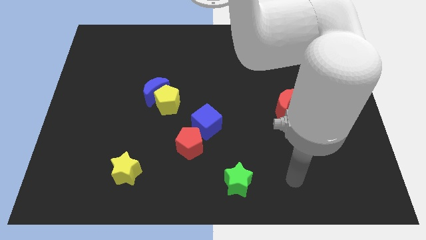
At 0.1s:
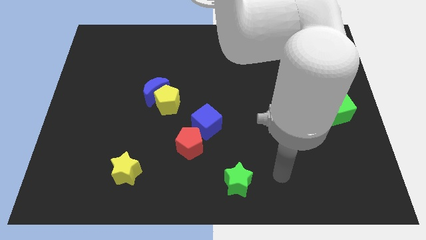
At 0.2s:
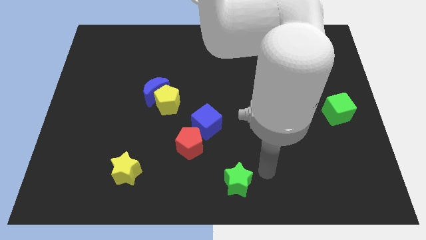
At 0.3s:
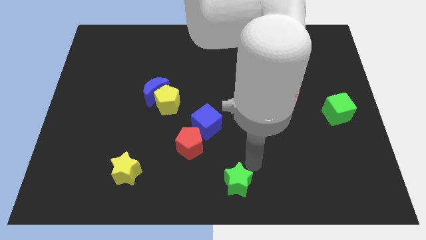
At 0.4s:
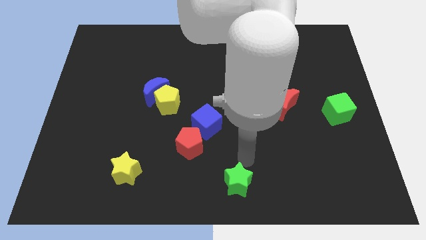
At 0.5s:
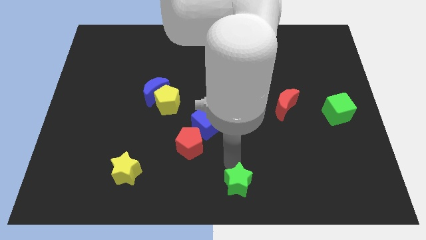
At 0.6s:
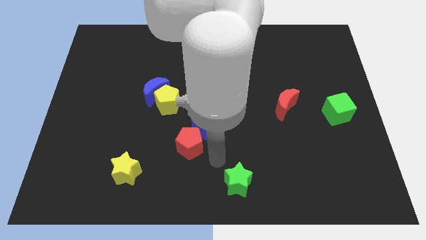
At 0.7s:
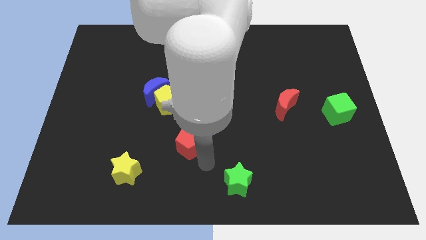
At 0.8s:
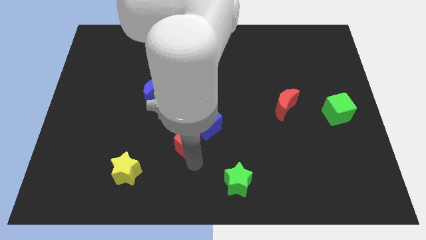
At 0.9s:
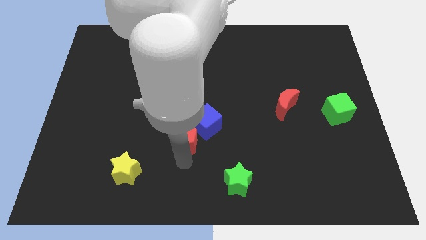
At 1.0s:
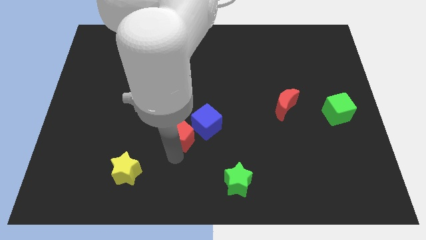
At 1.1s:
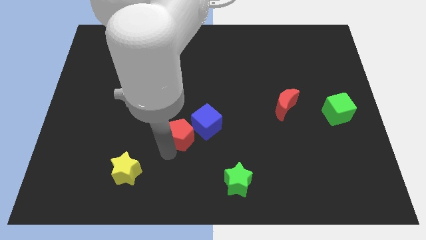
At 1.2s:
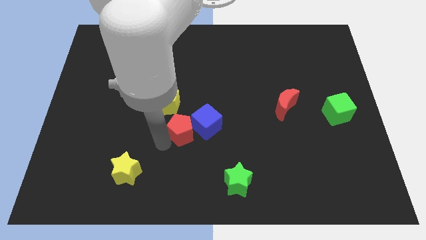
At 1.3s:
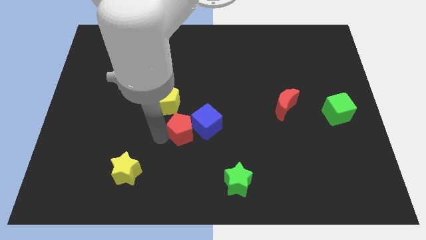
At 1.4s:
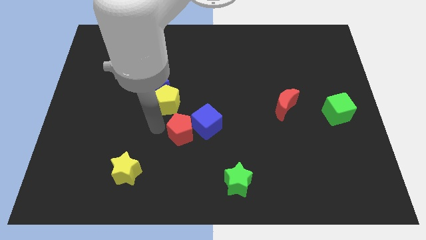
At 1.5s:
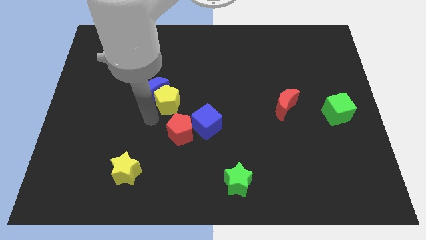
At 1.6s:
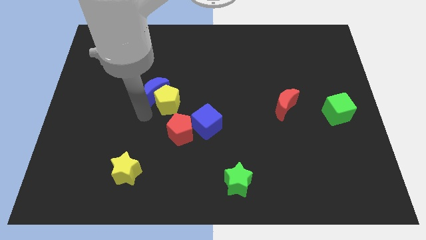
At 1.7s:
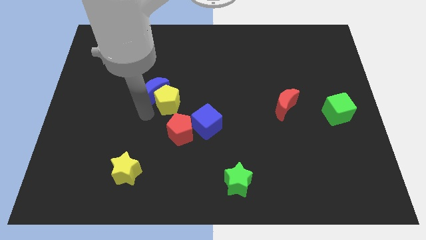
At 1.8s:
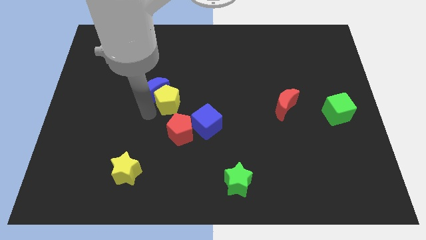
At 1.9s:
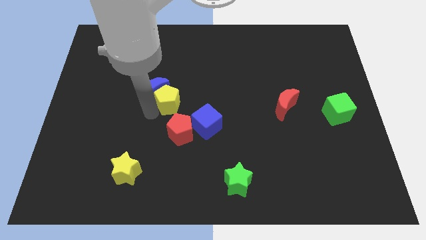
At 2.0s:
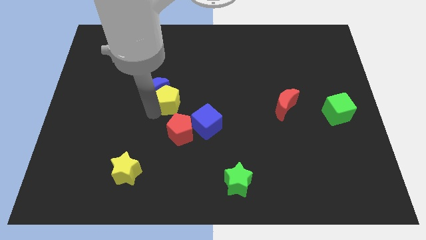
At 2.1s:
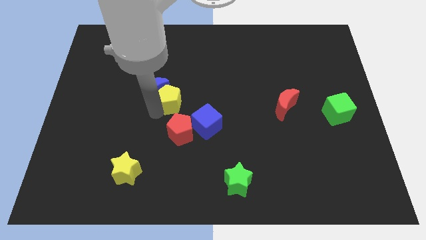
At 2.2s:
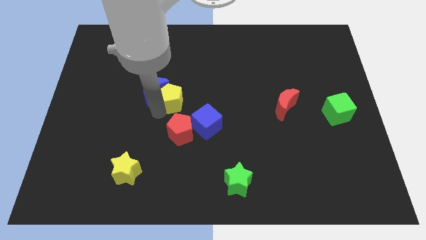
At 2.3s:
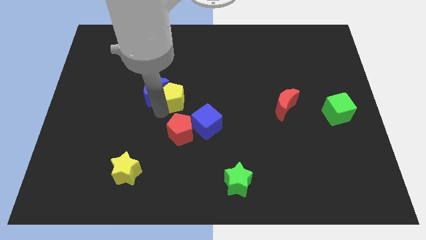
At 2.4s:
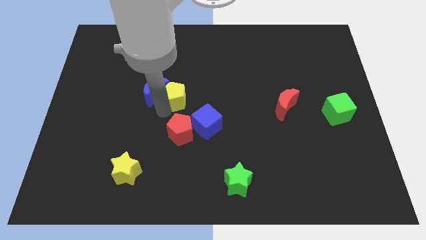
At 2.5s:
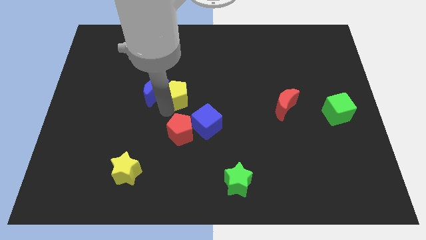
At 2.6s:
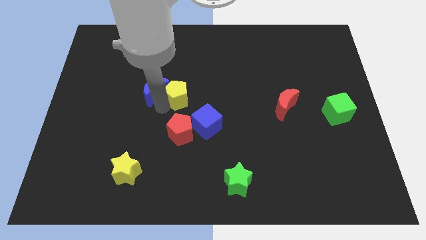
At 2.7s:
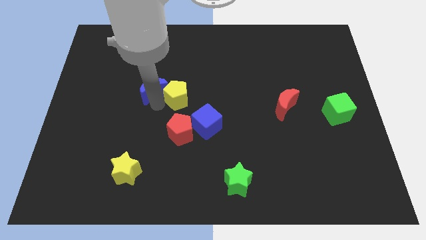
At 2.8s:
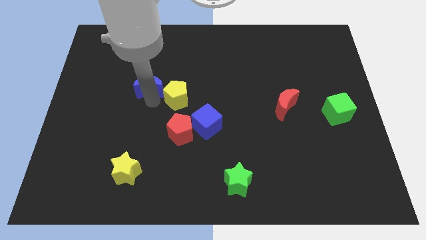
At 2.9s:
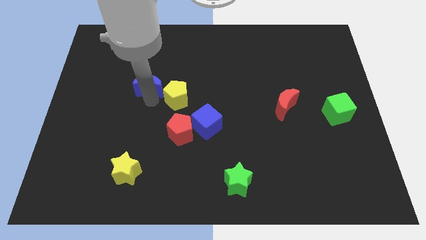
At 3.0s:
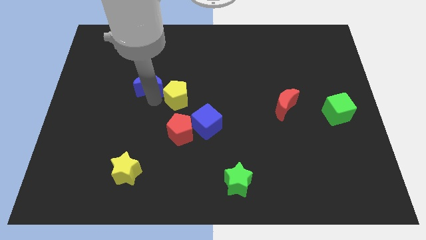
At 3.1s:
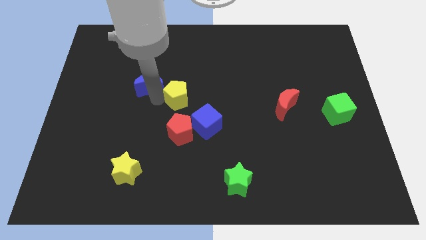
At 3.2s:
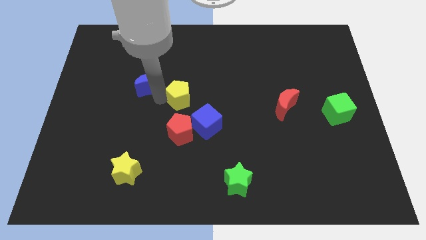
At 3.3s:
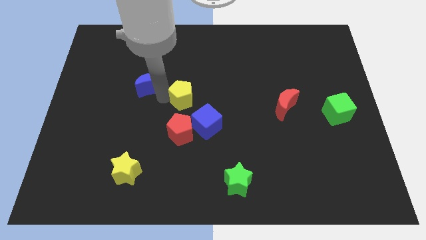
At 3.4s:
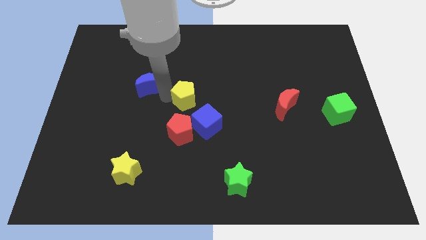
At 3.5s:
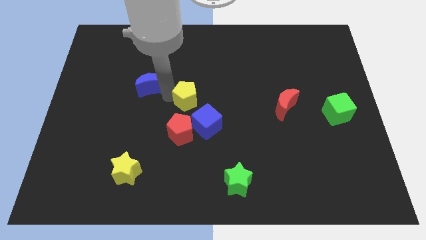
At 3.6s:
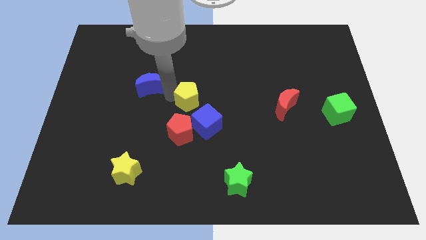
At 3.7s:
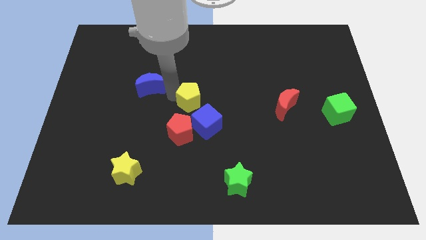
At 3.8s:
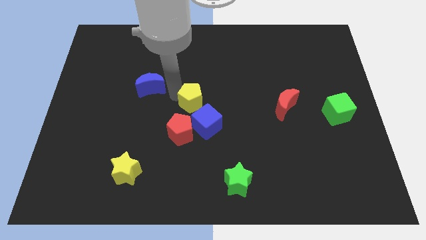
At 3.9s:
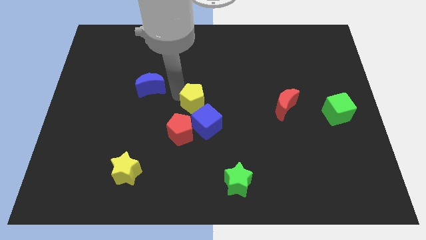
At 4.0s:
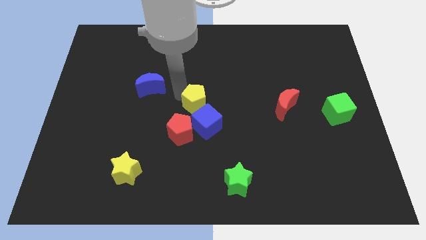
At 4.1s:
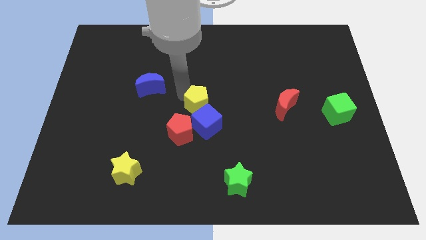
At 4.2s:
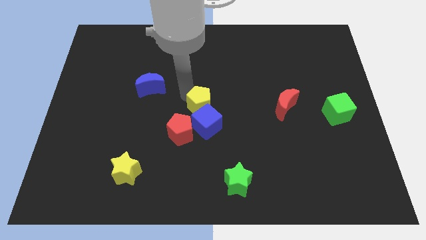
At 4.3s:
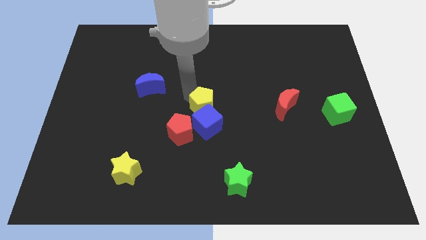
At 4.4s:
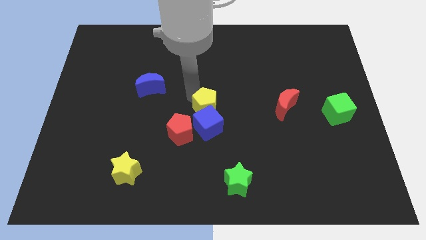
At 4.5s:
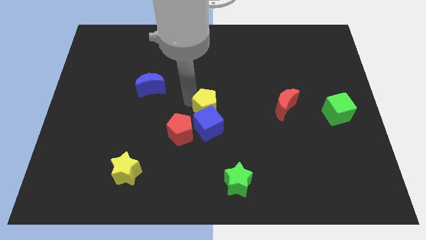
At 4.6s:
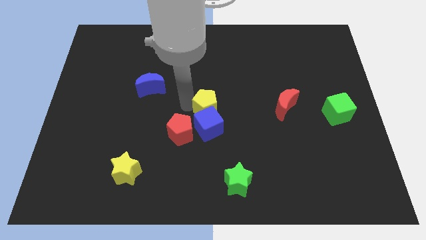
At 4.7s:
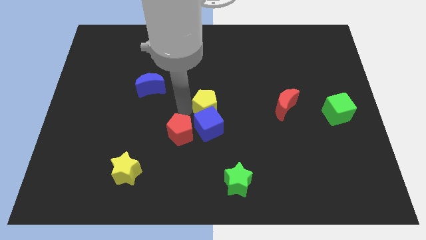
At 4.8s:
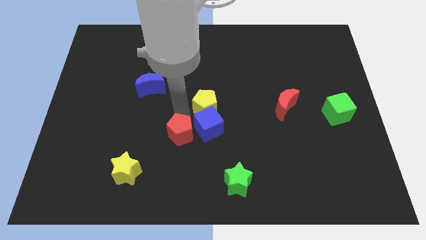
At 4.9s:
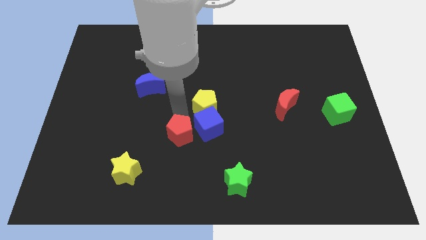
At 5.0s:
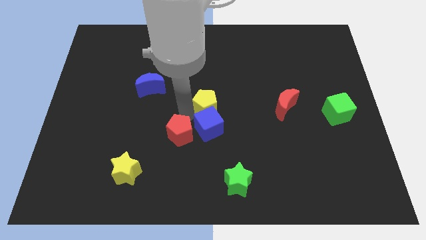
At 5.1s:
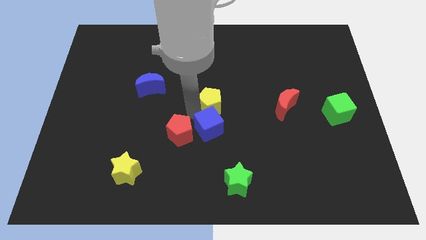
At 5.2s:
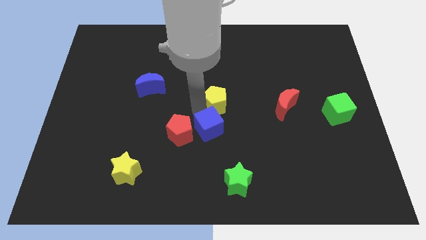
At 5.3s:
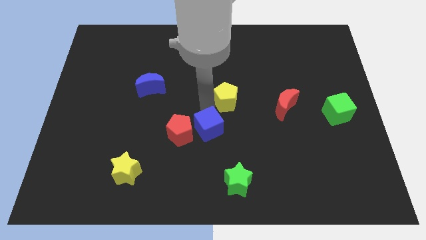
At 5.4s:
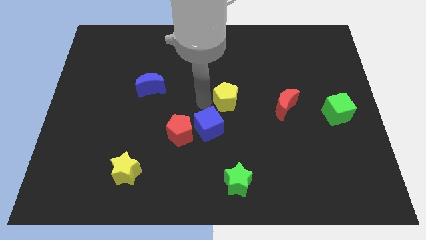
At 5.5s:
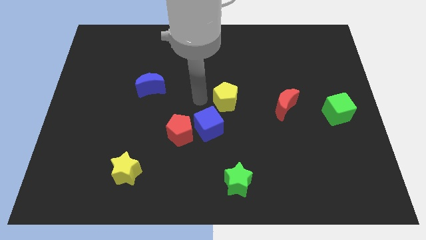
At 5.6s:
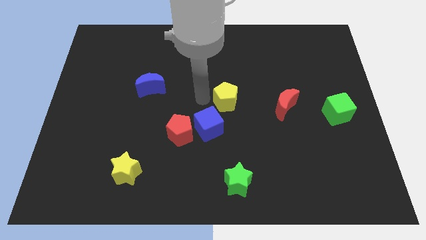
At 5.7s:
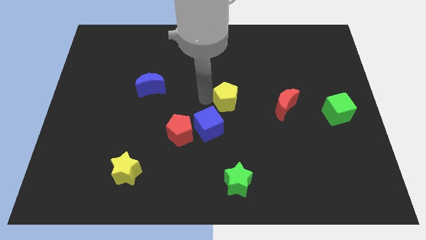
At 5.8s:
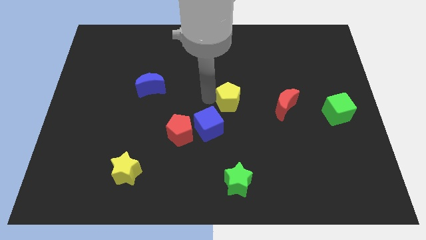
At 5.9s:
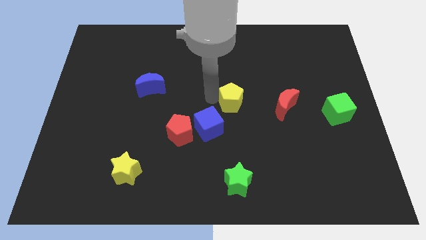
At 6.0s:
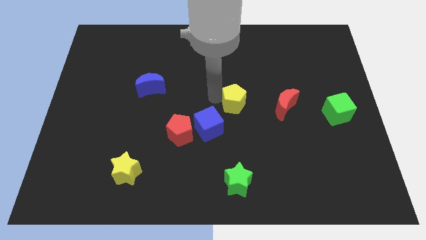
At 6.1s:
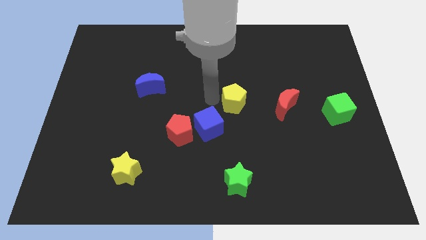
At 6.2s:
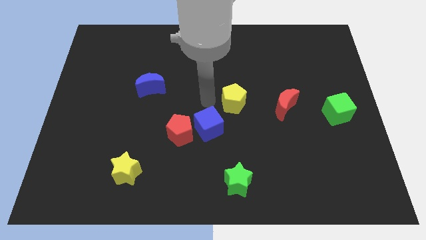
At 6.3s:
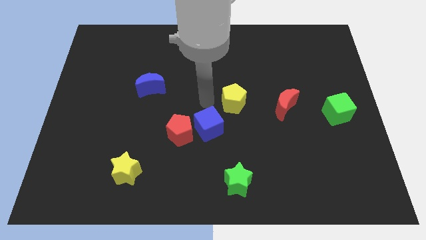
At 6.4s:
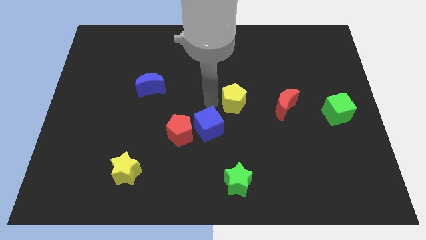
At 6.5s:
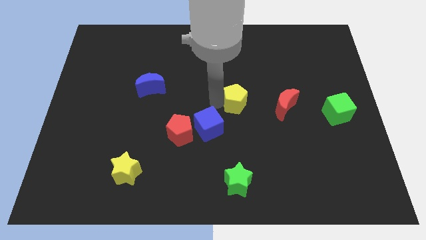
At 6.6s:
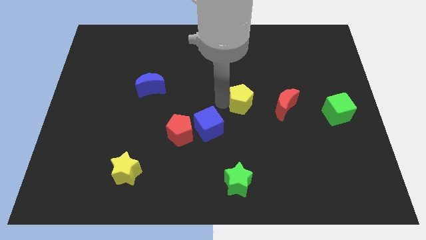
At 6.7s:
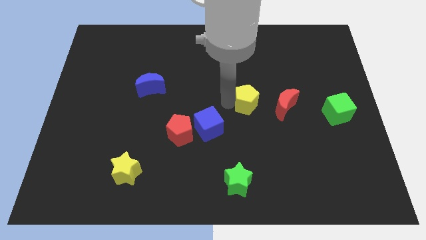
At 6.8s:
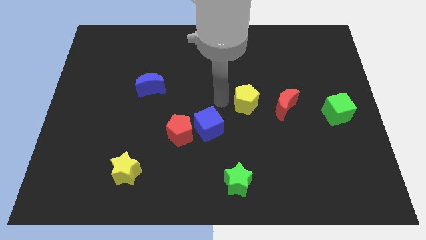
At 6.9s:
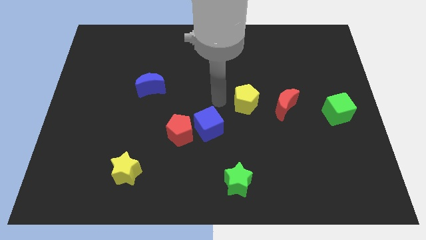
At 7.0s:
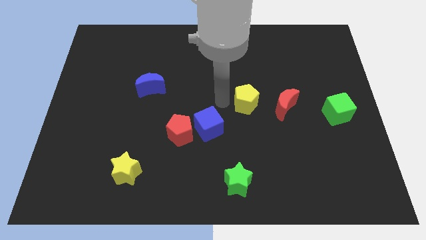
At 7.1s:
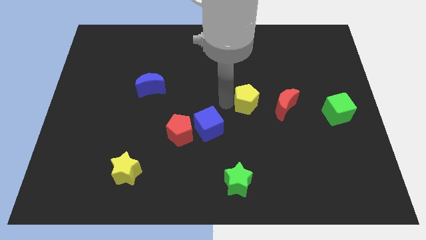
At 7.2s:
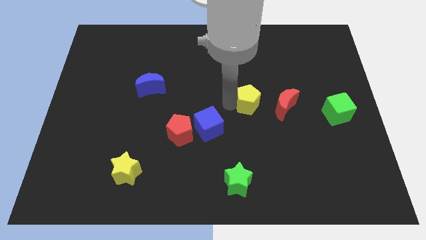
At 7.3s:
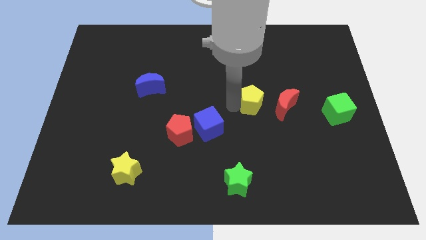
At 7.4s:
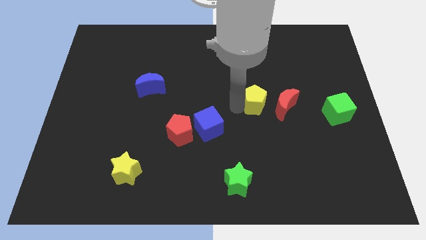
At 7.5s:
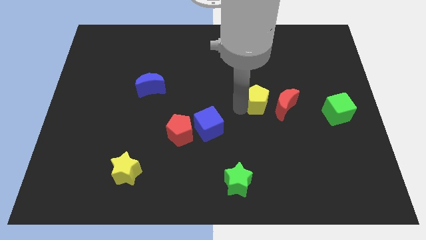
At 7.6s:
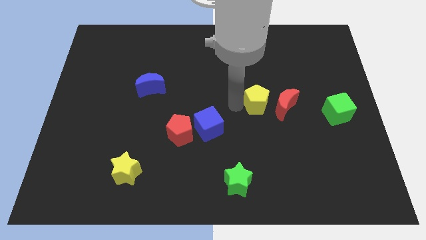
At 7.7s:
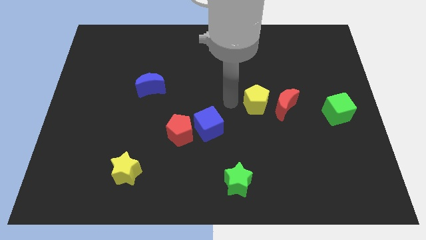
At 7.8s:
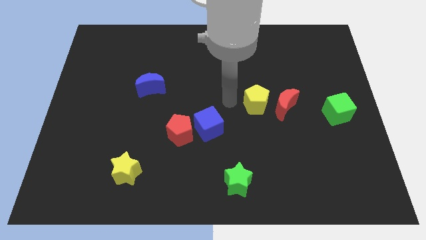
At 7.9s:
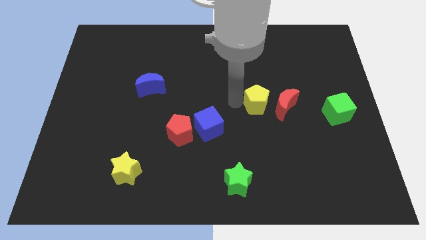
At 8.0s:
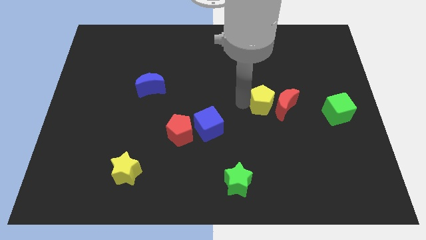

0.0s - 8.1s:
move the yellow pentagon towards the red moon
